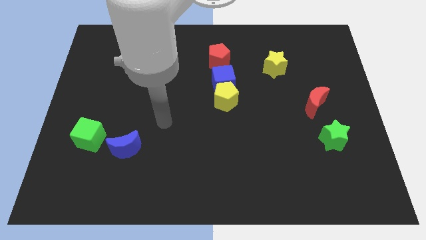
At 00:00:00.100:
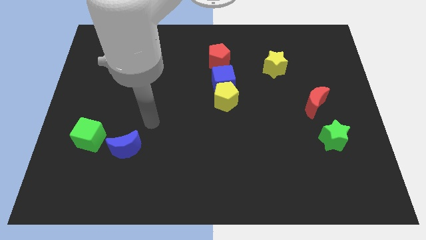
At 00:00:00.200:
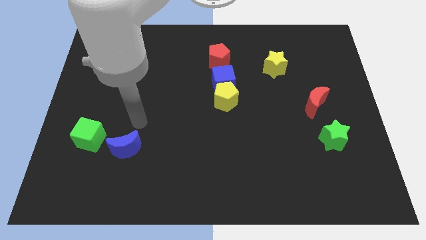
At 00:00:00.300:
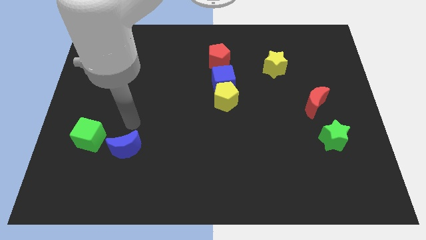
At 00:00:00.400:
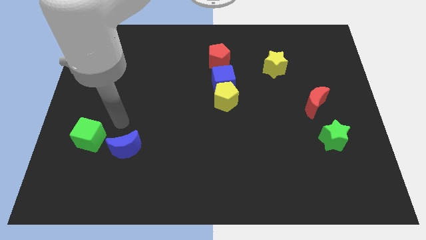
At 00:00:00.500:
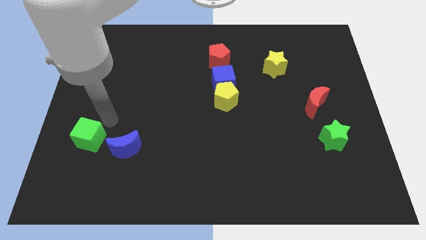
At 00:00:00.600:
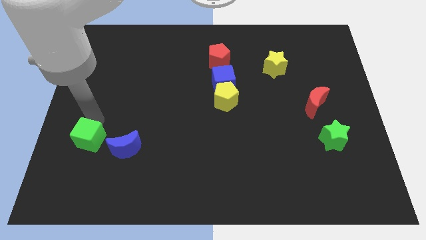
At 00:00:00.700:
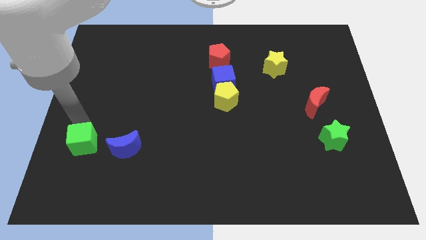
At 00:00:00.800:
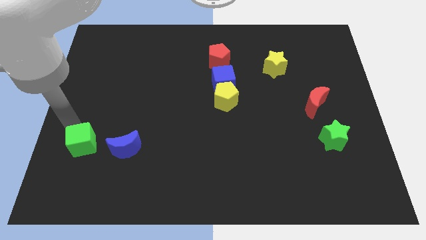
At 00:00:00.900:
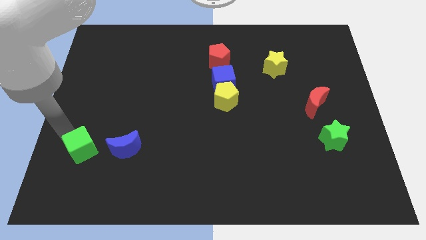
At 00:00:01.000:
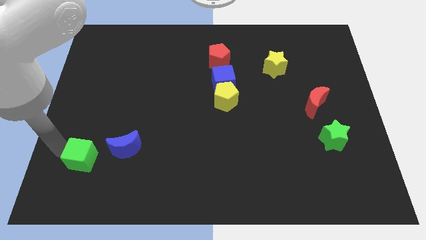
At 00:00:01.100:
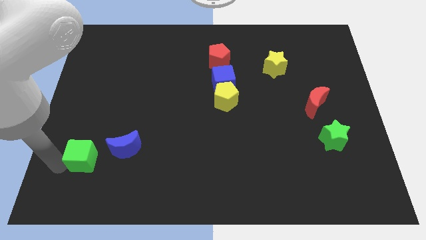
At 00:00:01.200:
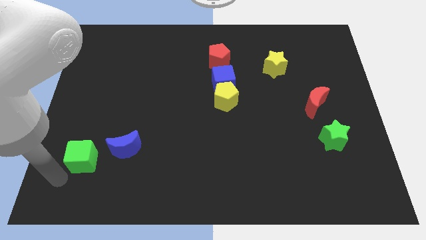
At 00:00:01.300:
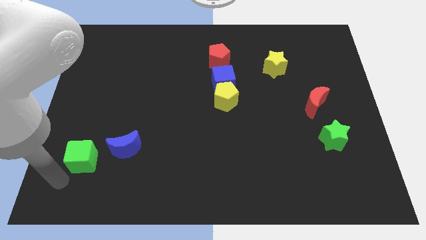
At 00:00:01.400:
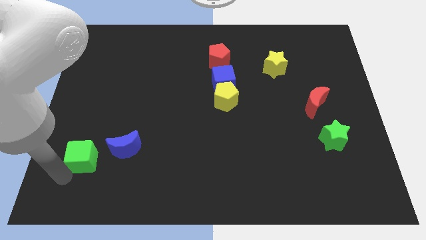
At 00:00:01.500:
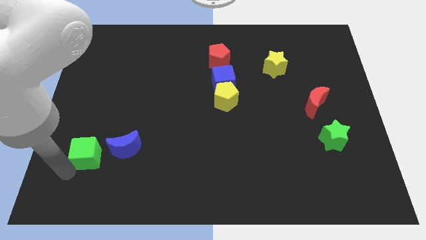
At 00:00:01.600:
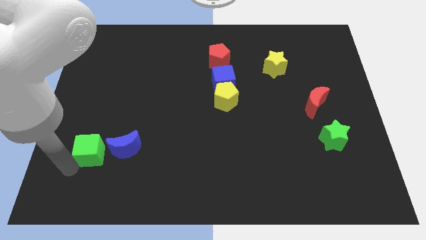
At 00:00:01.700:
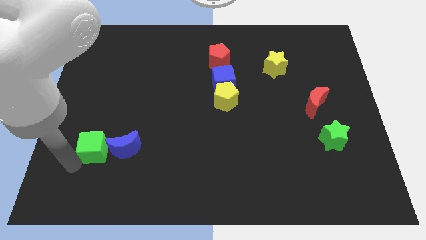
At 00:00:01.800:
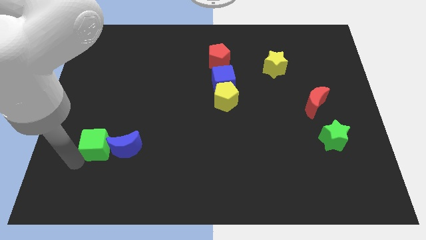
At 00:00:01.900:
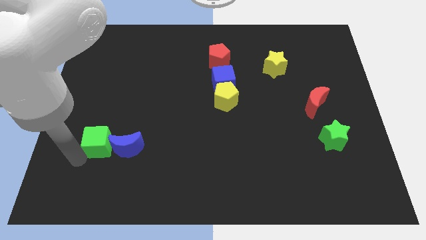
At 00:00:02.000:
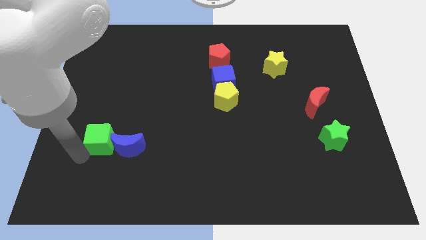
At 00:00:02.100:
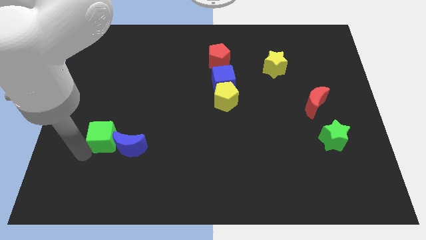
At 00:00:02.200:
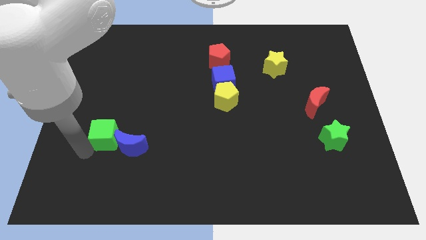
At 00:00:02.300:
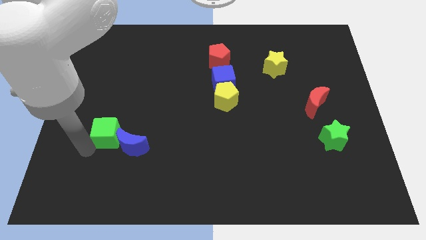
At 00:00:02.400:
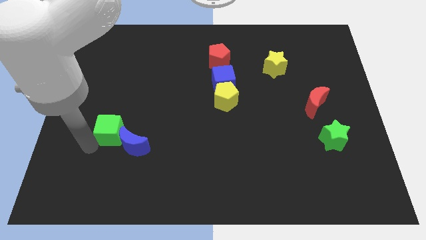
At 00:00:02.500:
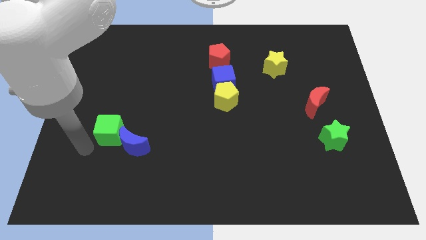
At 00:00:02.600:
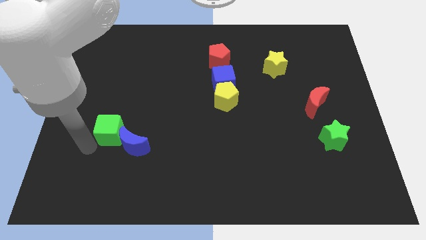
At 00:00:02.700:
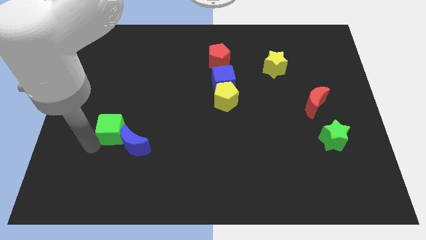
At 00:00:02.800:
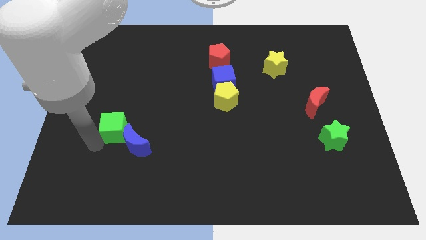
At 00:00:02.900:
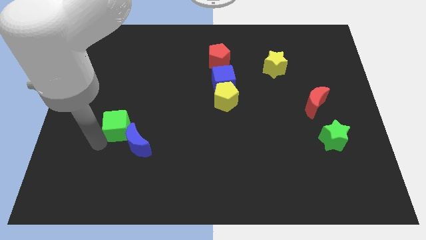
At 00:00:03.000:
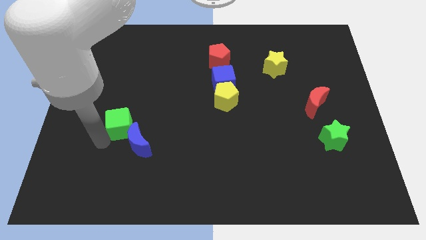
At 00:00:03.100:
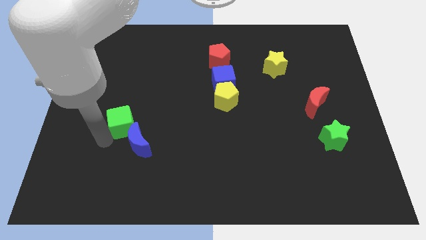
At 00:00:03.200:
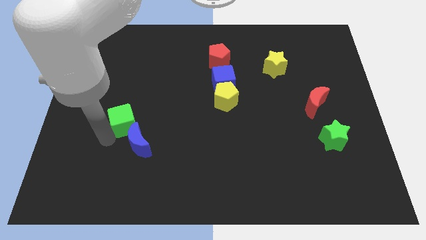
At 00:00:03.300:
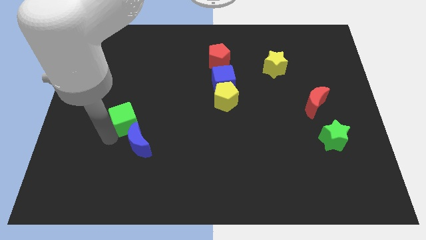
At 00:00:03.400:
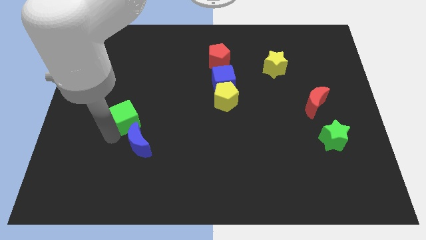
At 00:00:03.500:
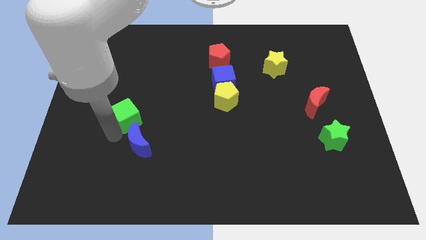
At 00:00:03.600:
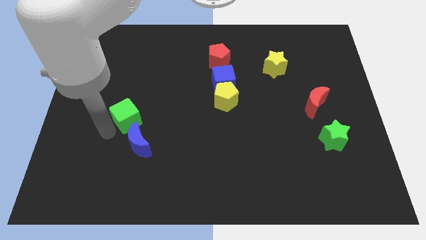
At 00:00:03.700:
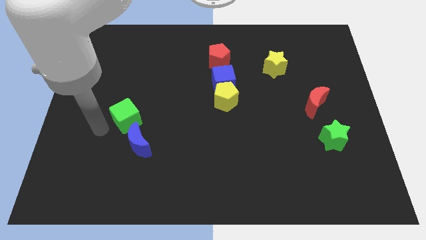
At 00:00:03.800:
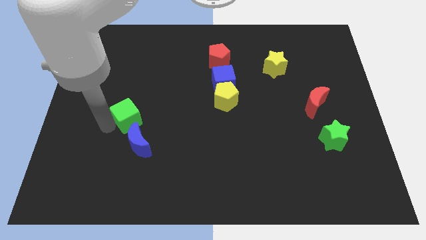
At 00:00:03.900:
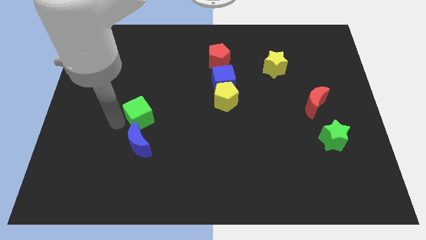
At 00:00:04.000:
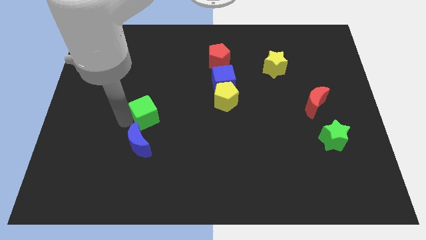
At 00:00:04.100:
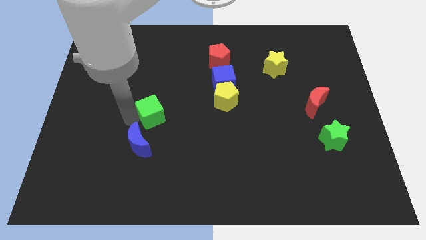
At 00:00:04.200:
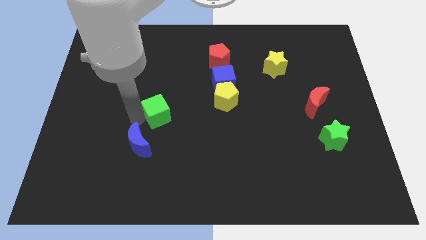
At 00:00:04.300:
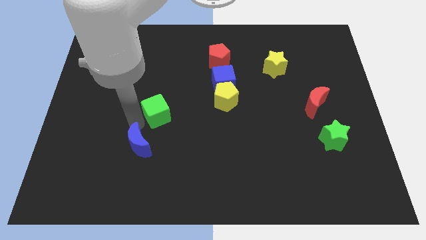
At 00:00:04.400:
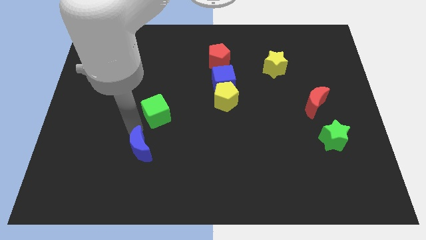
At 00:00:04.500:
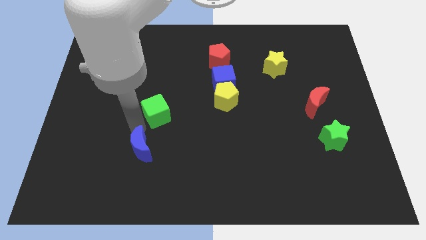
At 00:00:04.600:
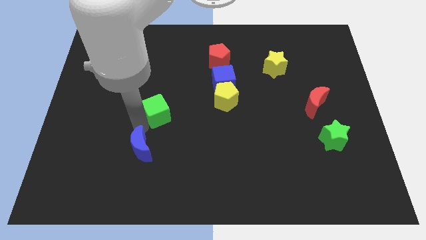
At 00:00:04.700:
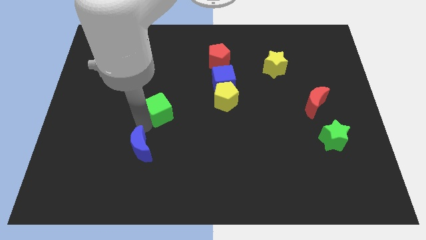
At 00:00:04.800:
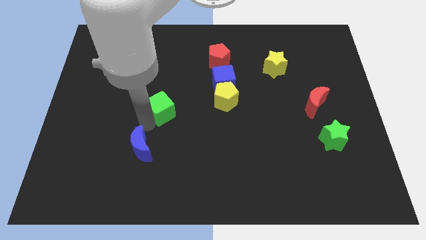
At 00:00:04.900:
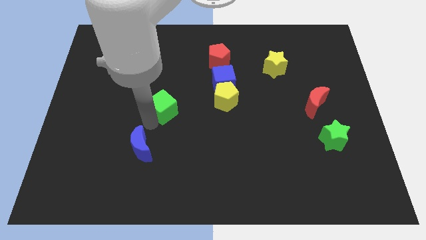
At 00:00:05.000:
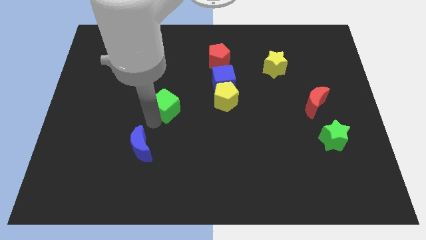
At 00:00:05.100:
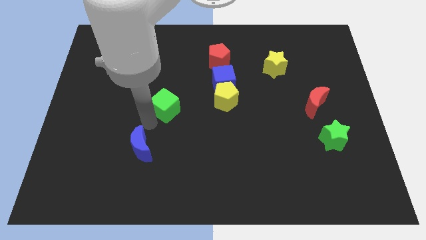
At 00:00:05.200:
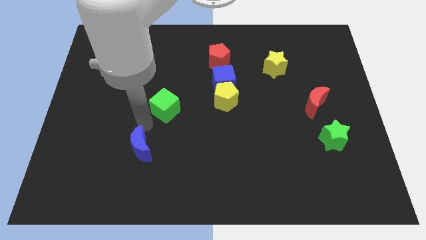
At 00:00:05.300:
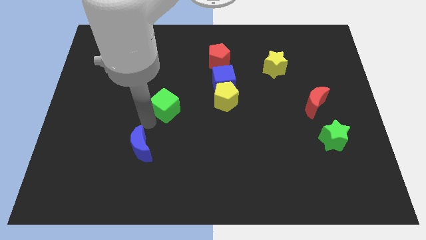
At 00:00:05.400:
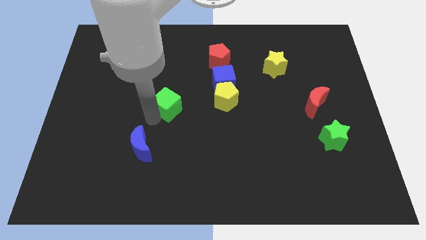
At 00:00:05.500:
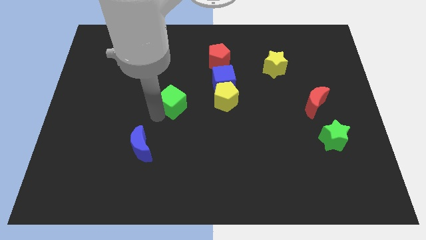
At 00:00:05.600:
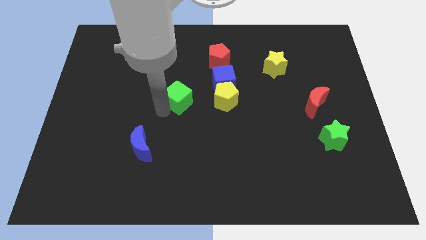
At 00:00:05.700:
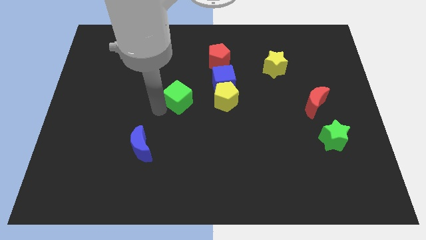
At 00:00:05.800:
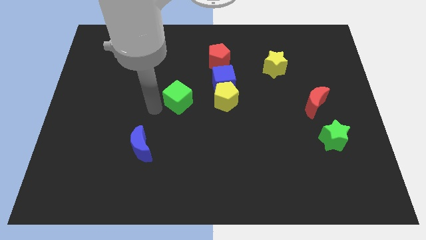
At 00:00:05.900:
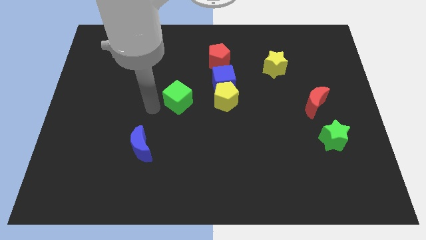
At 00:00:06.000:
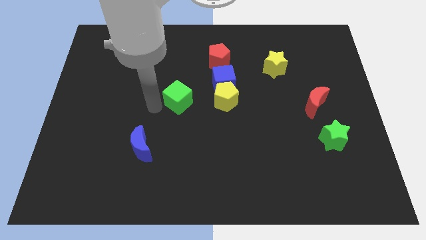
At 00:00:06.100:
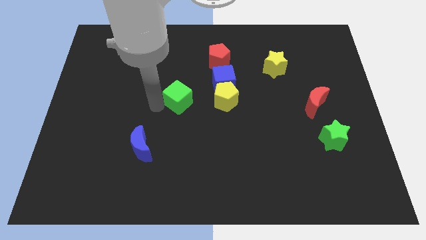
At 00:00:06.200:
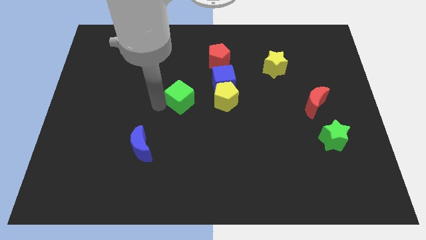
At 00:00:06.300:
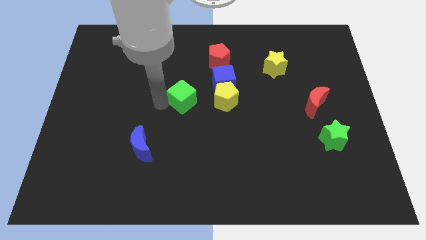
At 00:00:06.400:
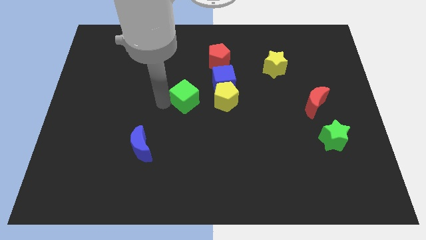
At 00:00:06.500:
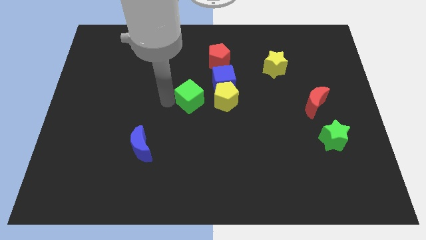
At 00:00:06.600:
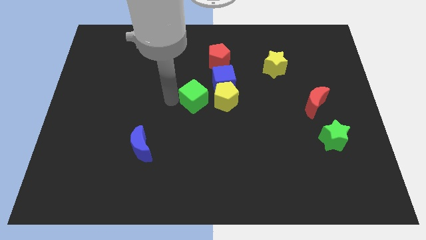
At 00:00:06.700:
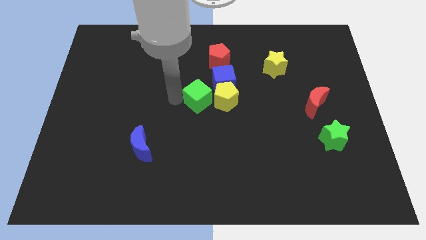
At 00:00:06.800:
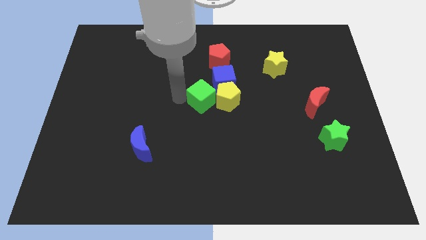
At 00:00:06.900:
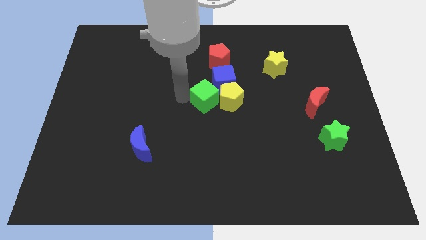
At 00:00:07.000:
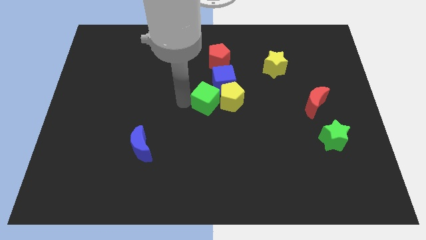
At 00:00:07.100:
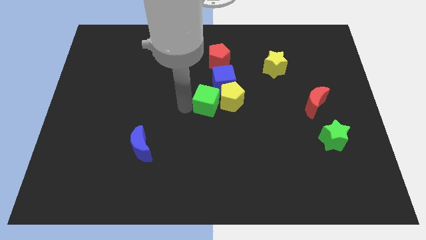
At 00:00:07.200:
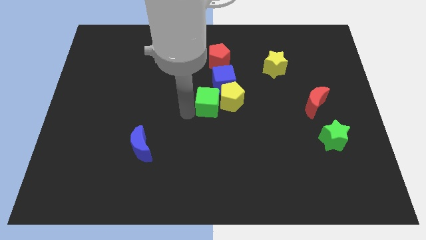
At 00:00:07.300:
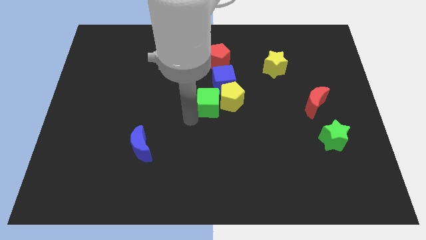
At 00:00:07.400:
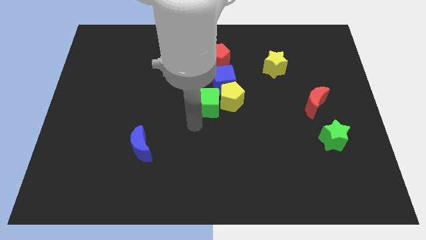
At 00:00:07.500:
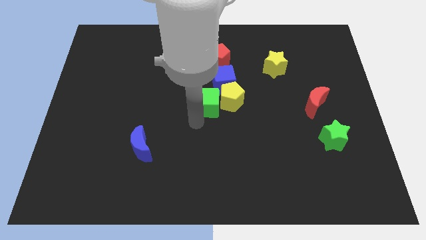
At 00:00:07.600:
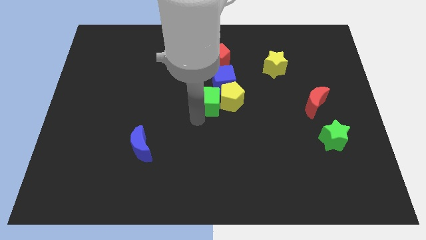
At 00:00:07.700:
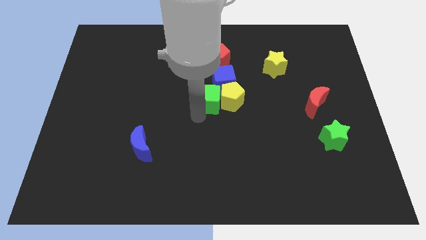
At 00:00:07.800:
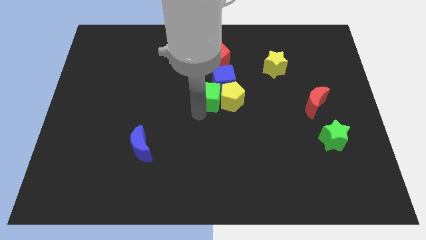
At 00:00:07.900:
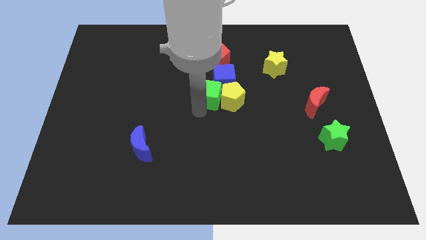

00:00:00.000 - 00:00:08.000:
move the green cube towards the blue cube
